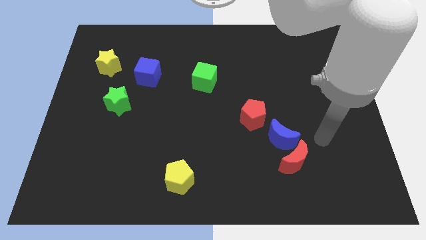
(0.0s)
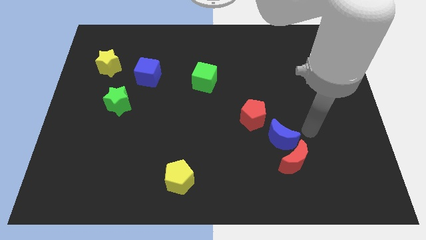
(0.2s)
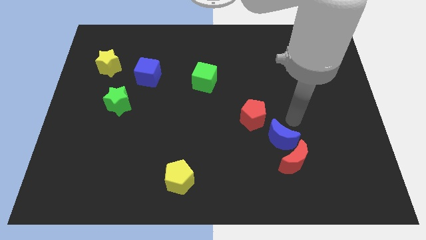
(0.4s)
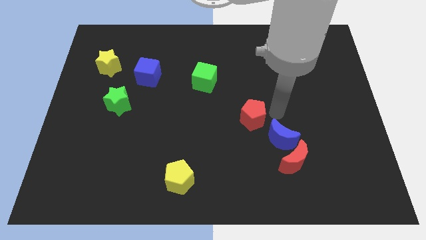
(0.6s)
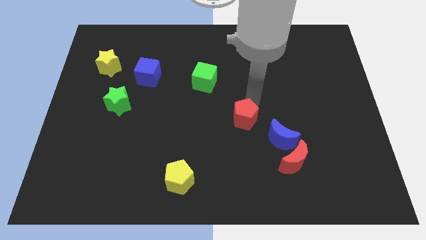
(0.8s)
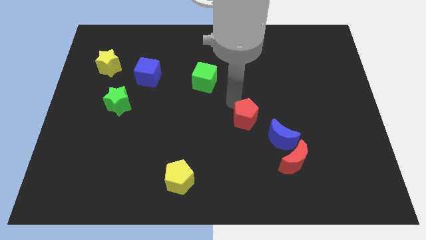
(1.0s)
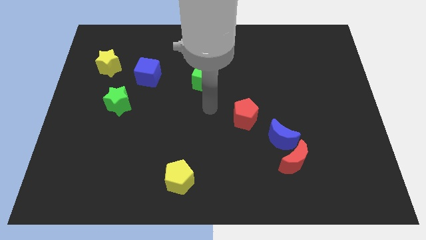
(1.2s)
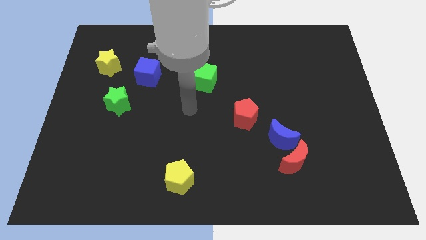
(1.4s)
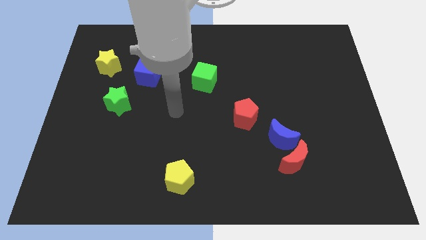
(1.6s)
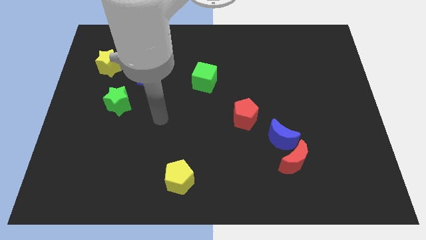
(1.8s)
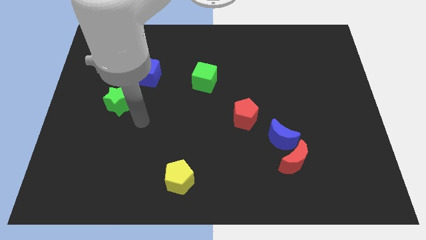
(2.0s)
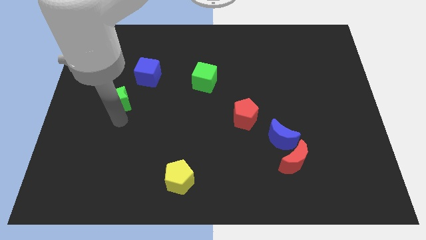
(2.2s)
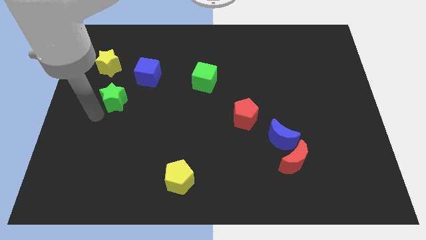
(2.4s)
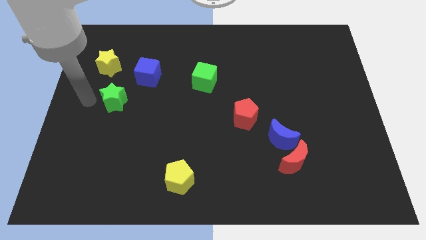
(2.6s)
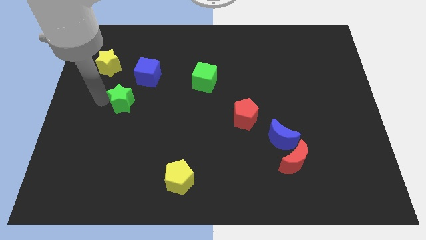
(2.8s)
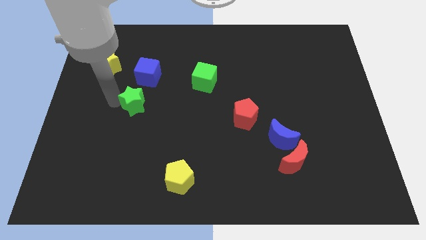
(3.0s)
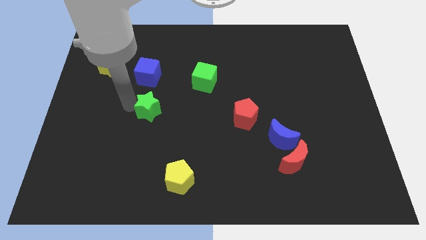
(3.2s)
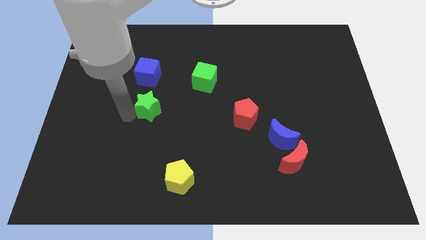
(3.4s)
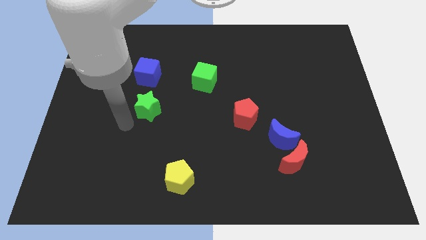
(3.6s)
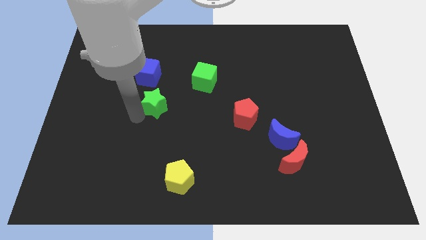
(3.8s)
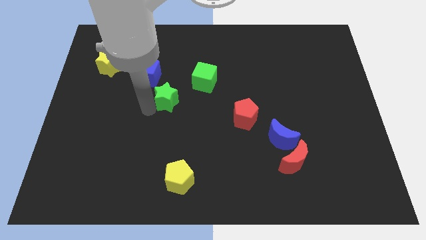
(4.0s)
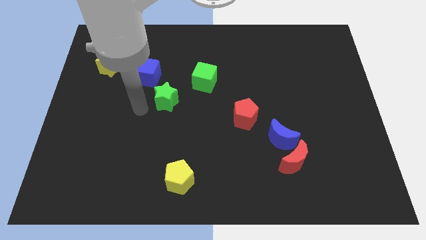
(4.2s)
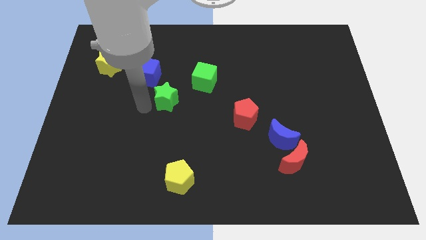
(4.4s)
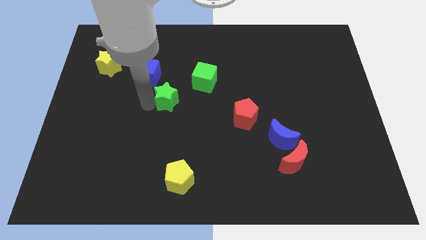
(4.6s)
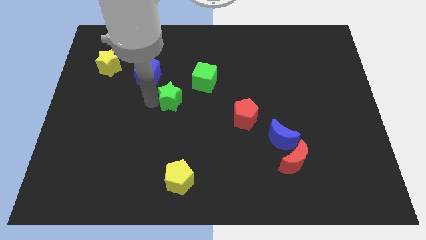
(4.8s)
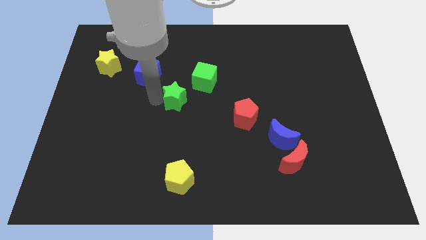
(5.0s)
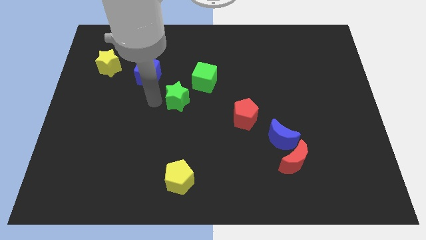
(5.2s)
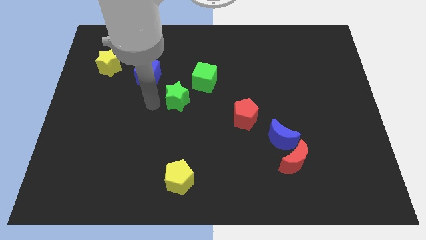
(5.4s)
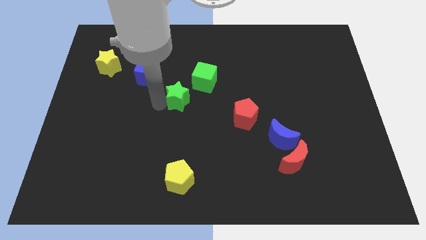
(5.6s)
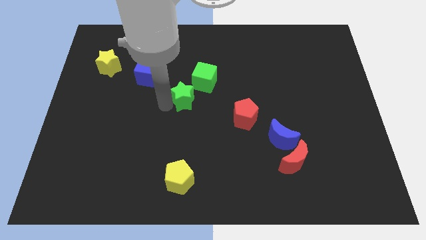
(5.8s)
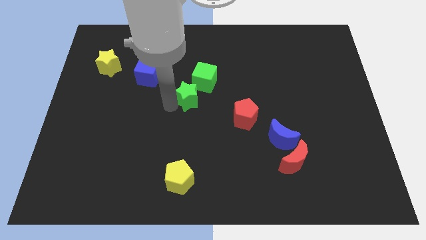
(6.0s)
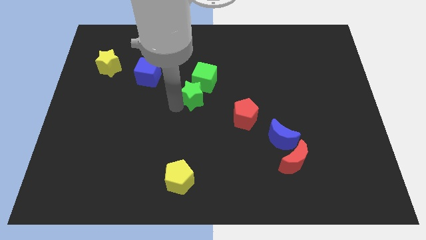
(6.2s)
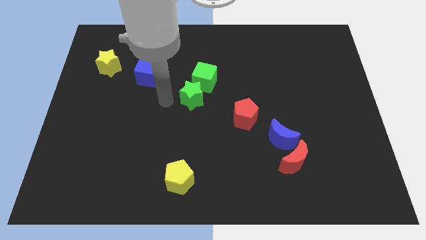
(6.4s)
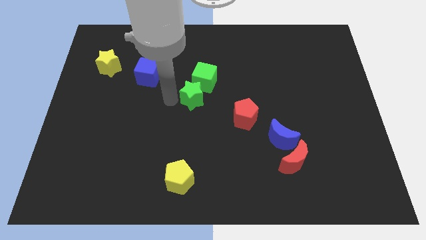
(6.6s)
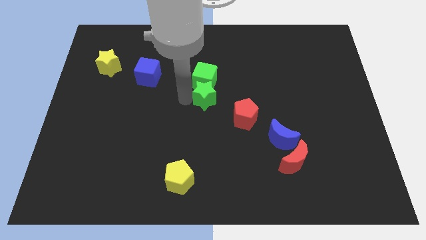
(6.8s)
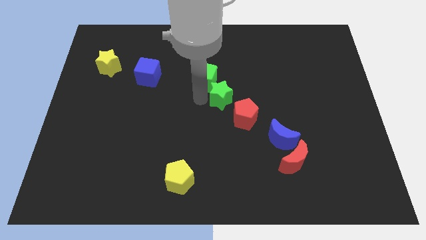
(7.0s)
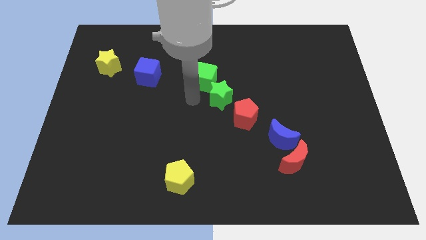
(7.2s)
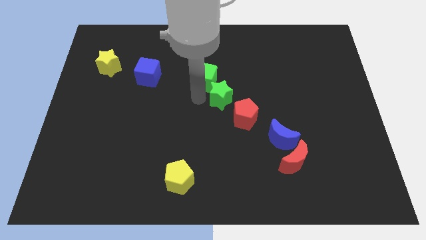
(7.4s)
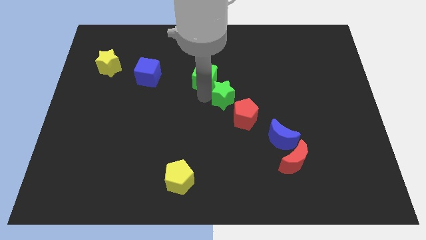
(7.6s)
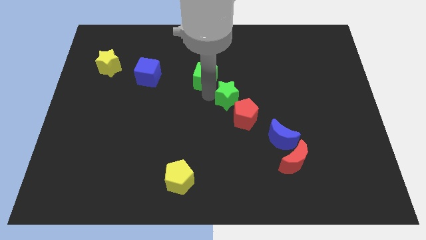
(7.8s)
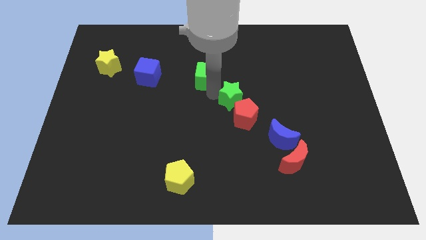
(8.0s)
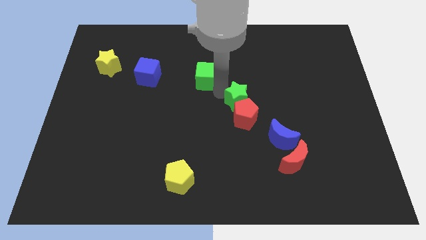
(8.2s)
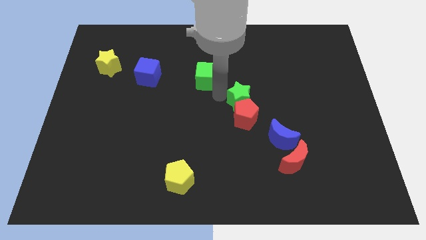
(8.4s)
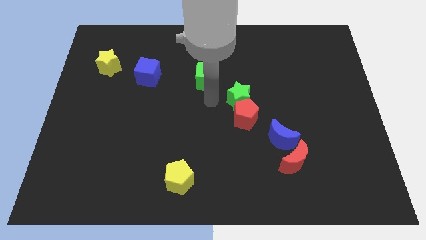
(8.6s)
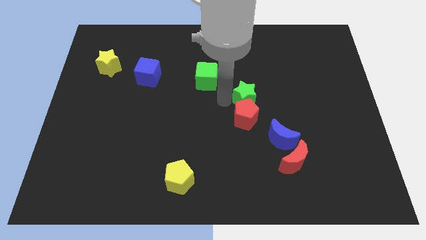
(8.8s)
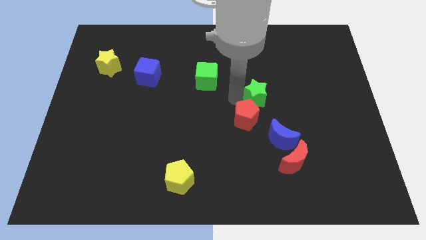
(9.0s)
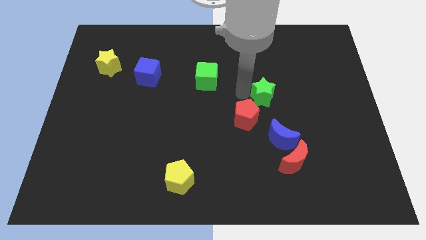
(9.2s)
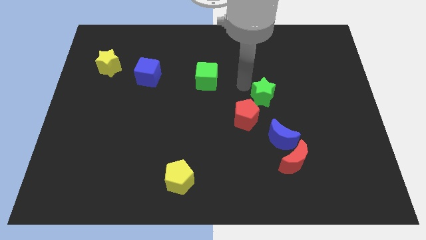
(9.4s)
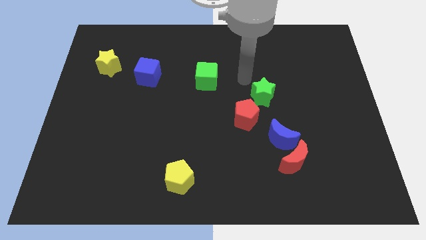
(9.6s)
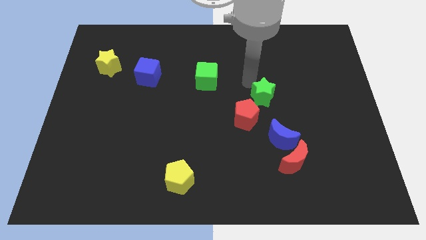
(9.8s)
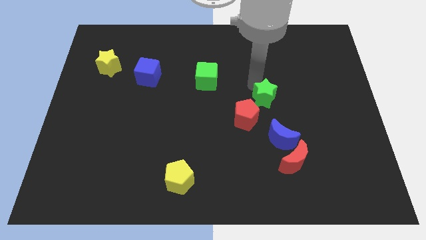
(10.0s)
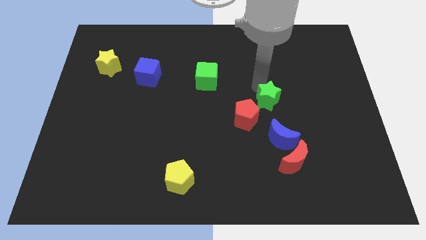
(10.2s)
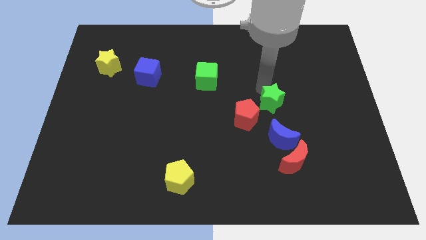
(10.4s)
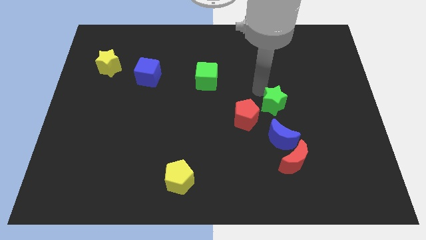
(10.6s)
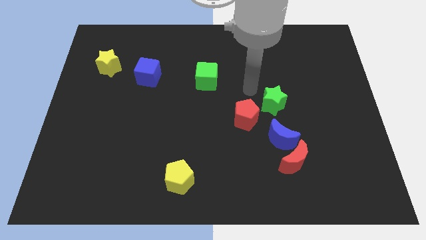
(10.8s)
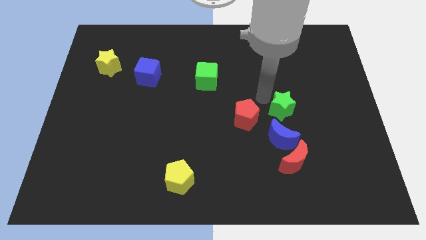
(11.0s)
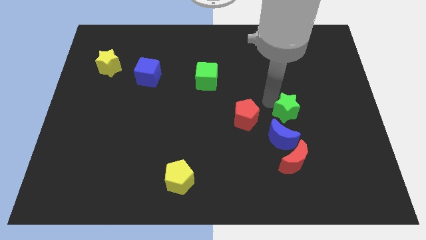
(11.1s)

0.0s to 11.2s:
put the green star to the top right of the blue moon

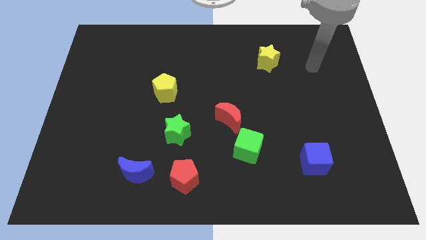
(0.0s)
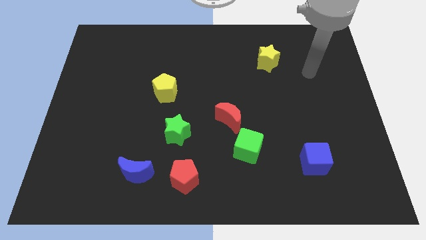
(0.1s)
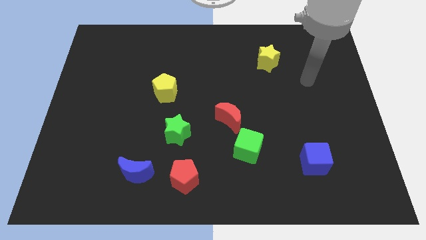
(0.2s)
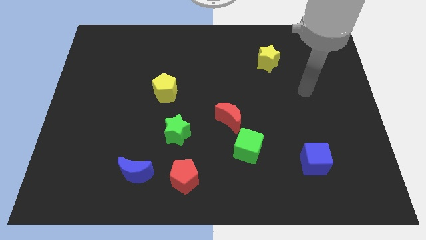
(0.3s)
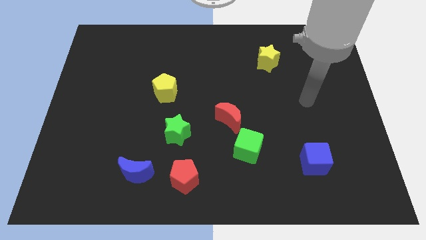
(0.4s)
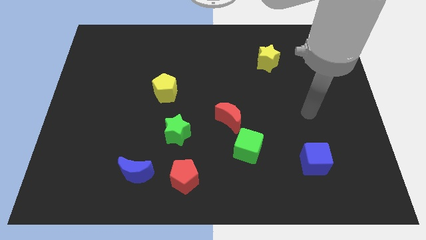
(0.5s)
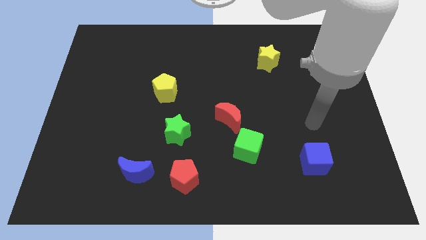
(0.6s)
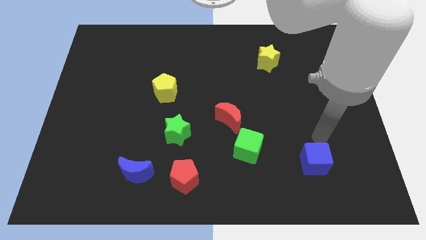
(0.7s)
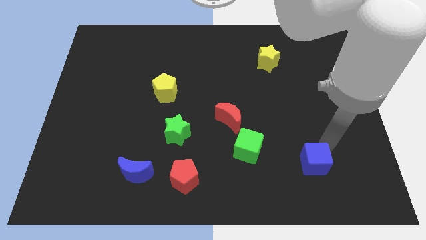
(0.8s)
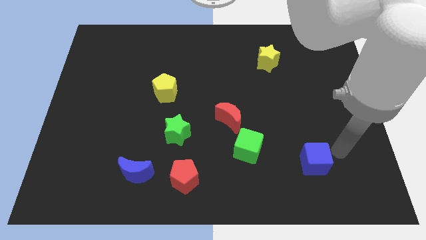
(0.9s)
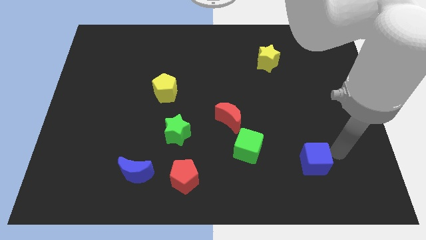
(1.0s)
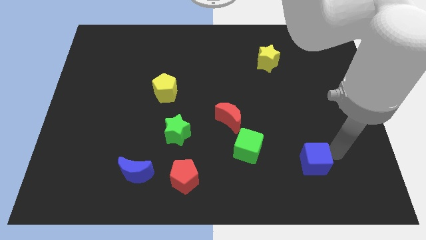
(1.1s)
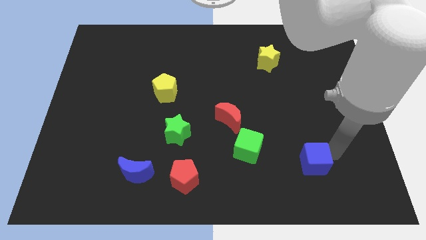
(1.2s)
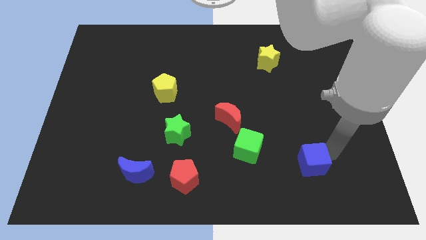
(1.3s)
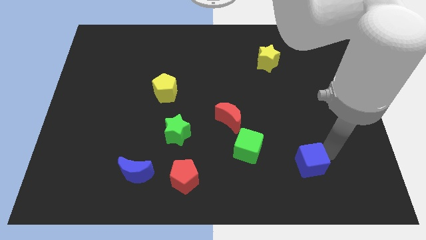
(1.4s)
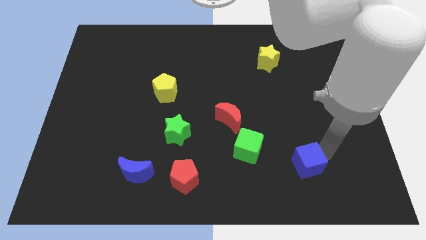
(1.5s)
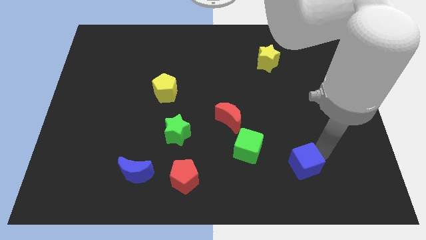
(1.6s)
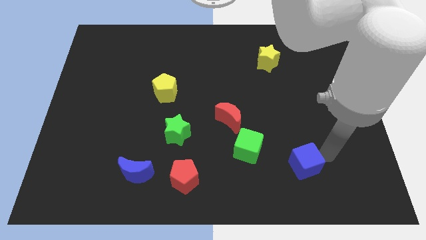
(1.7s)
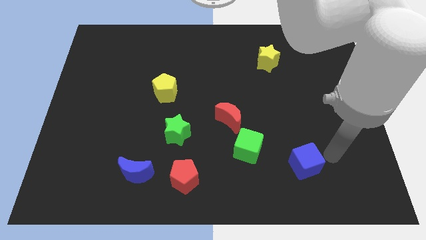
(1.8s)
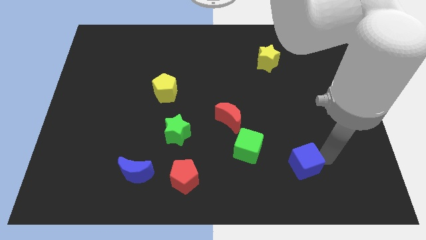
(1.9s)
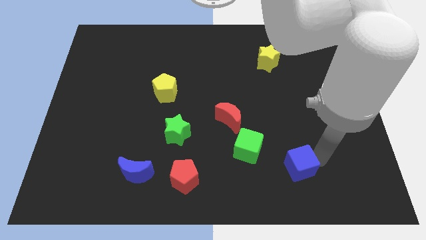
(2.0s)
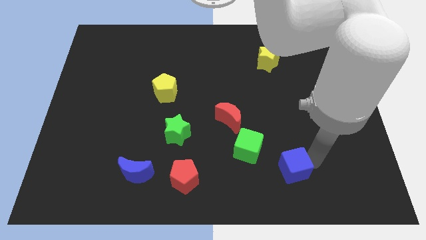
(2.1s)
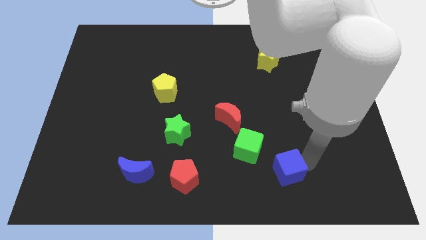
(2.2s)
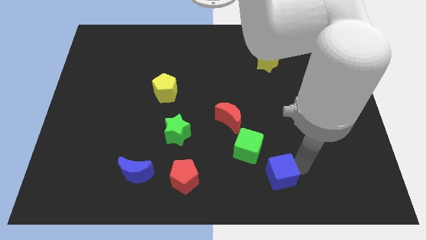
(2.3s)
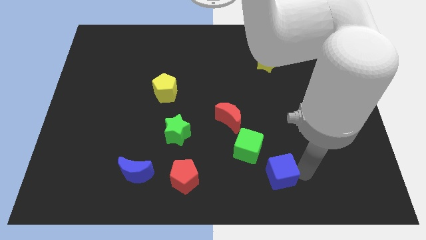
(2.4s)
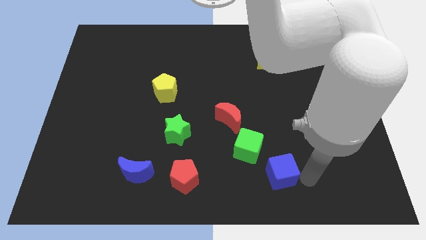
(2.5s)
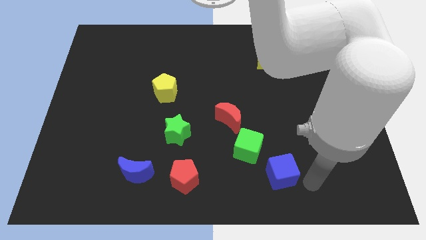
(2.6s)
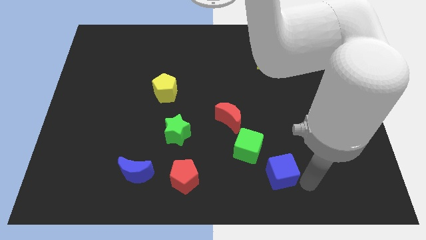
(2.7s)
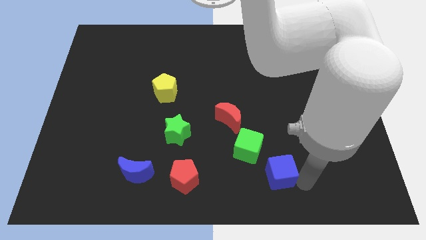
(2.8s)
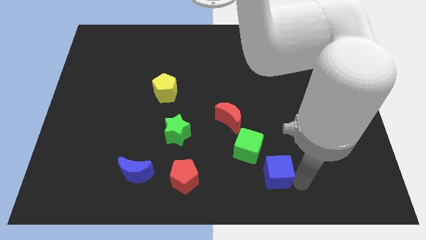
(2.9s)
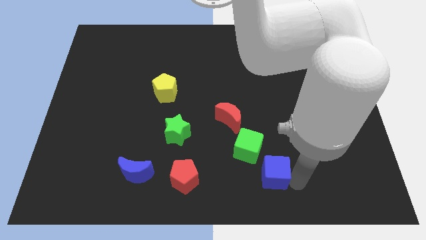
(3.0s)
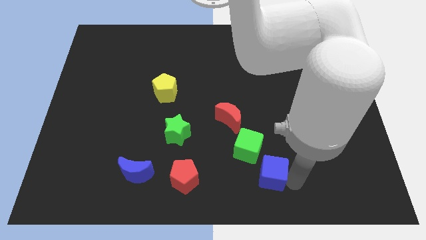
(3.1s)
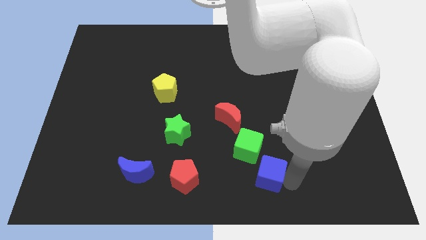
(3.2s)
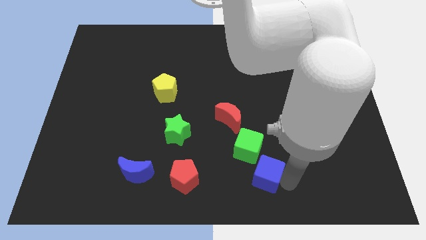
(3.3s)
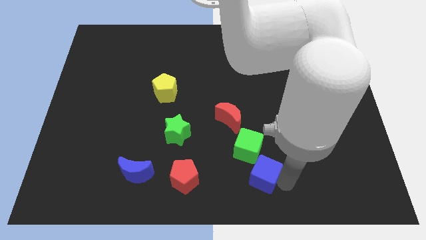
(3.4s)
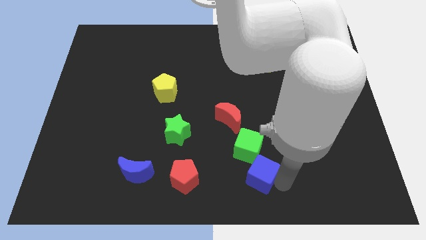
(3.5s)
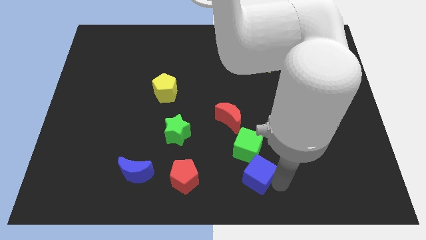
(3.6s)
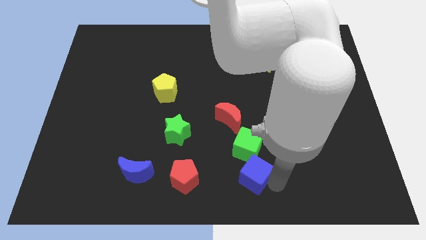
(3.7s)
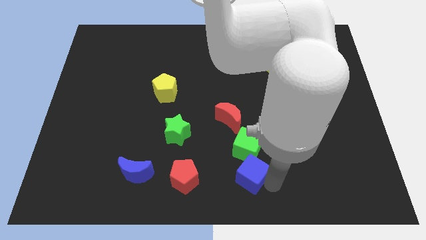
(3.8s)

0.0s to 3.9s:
put the blue cube below the red moon
